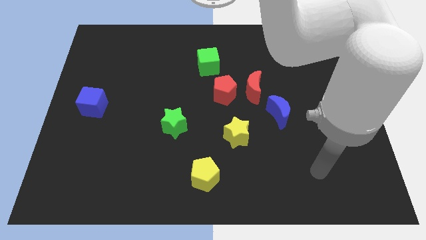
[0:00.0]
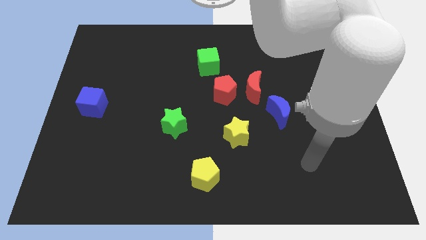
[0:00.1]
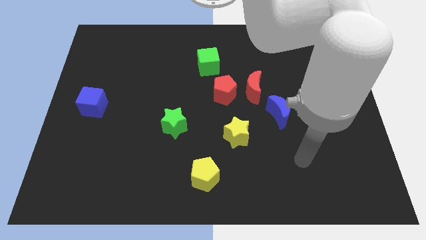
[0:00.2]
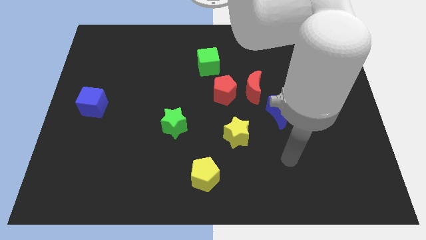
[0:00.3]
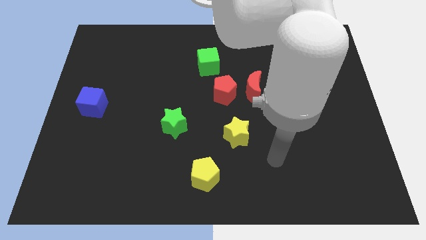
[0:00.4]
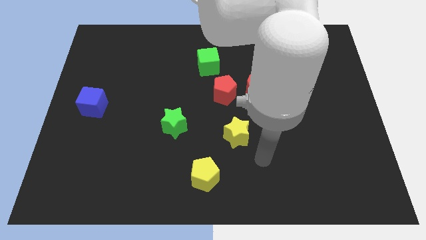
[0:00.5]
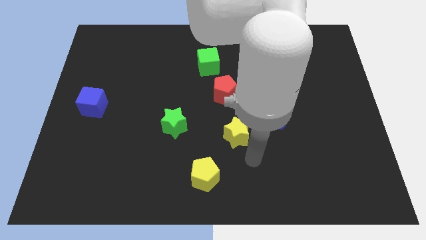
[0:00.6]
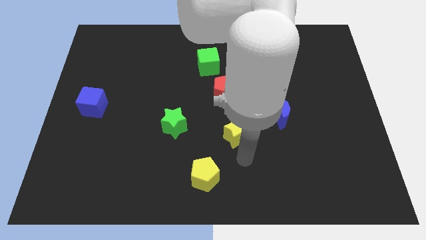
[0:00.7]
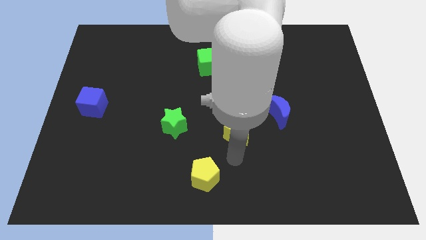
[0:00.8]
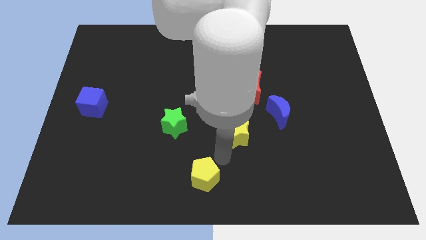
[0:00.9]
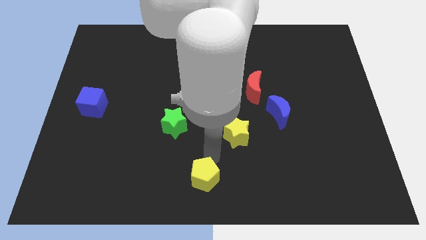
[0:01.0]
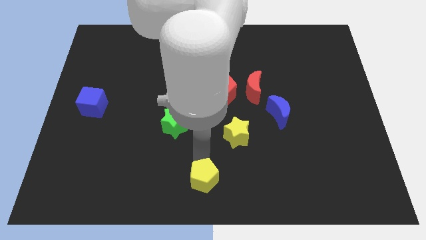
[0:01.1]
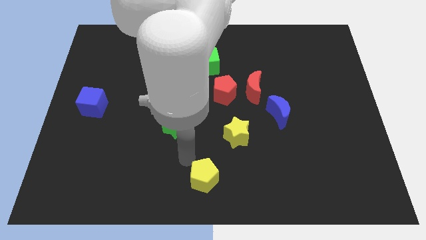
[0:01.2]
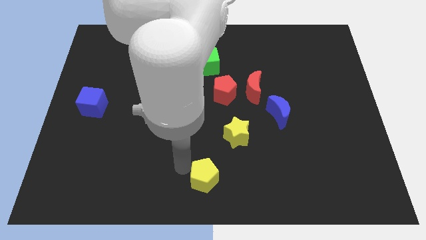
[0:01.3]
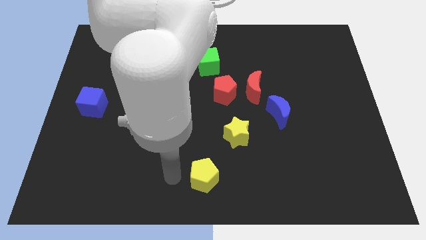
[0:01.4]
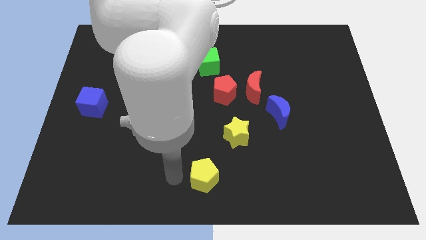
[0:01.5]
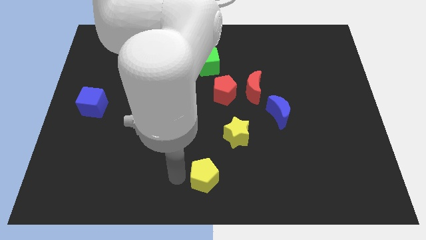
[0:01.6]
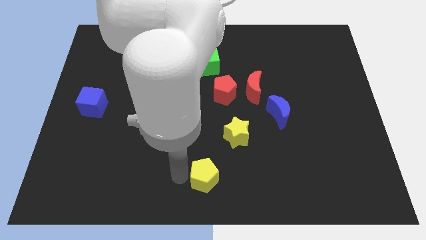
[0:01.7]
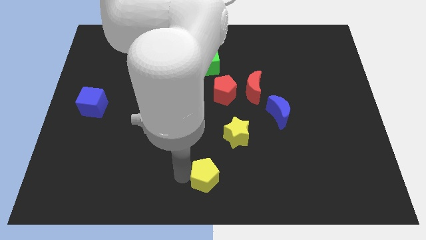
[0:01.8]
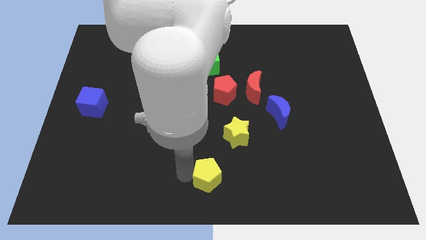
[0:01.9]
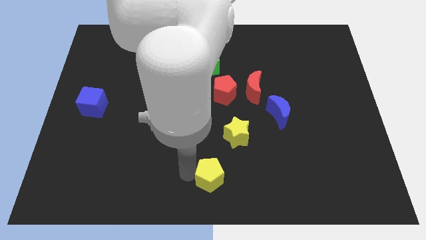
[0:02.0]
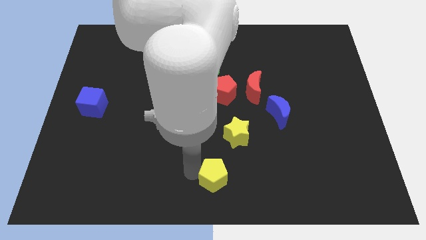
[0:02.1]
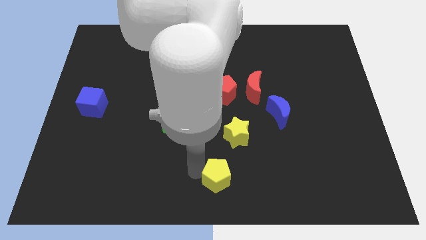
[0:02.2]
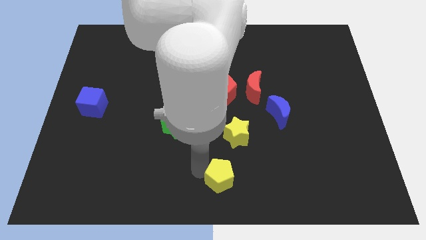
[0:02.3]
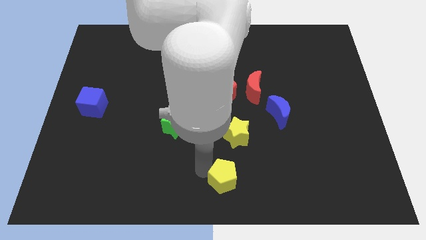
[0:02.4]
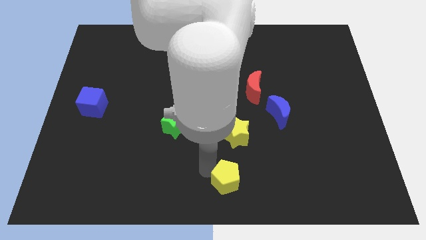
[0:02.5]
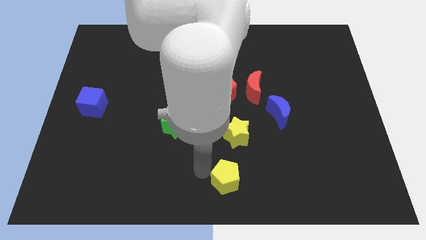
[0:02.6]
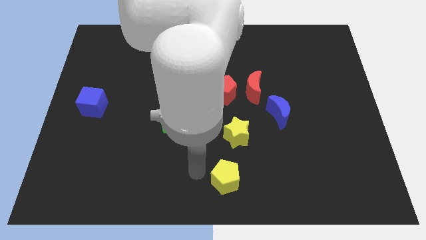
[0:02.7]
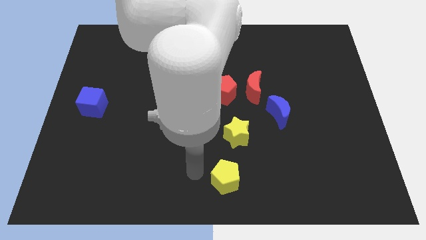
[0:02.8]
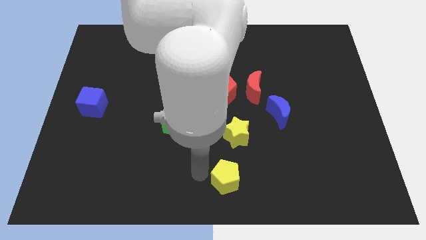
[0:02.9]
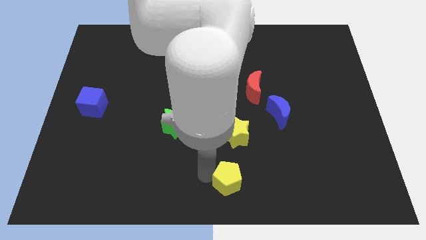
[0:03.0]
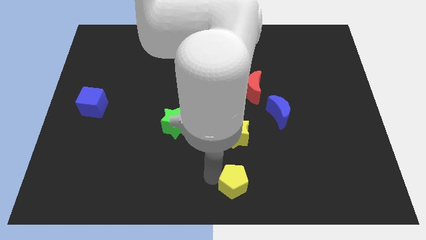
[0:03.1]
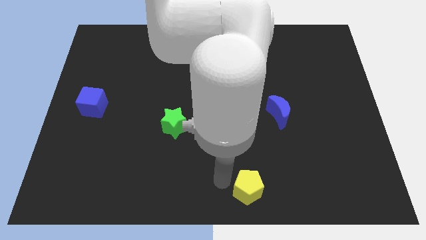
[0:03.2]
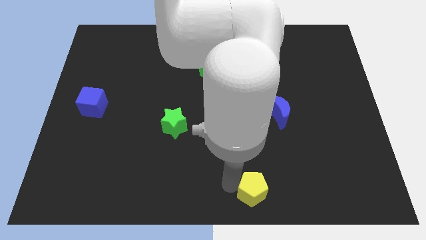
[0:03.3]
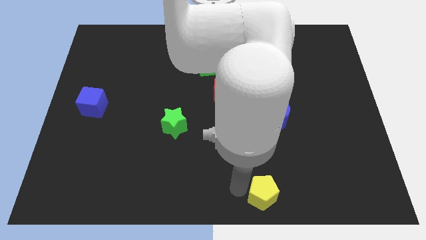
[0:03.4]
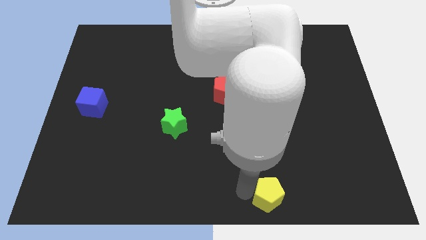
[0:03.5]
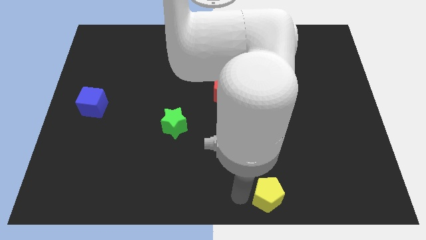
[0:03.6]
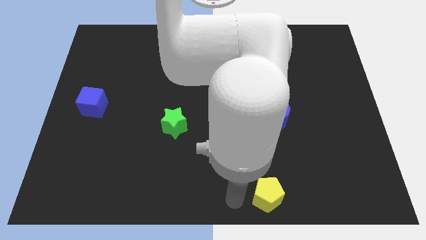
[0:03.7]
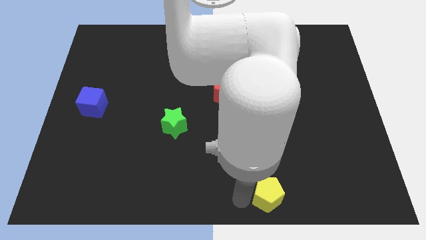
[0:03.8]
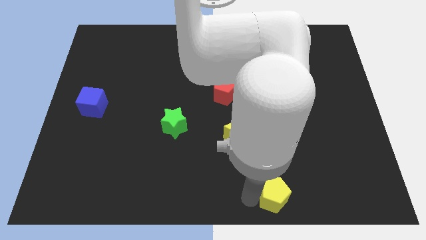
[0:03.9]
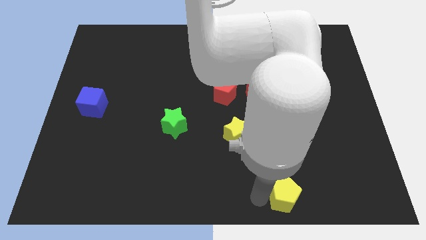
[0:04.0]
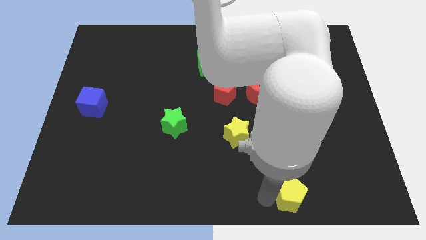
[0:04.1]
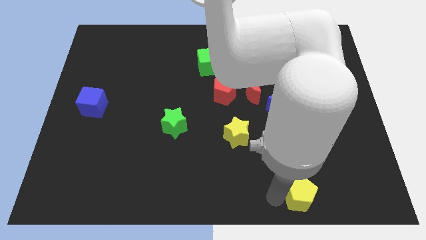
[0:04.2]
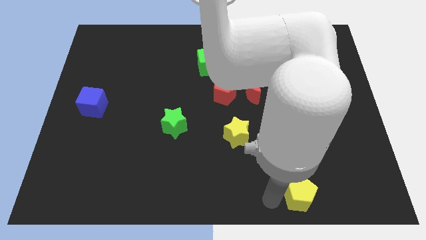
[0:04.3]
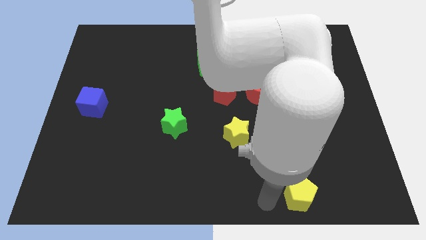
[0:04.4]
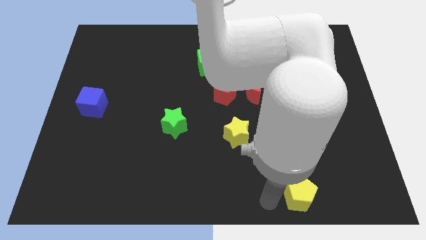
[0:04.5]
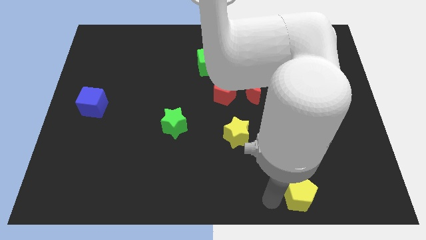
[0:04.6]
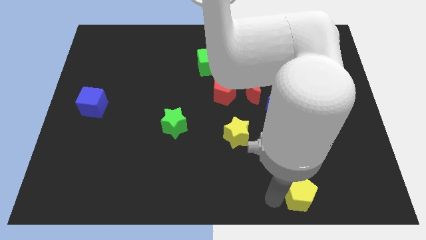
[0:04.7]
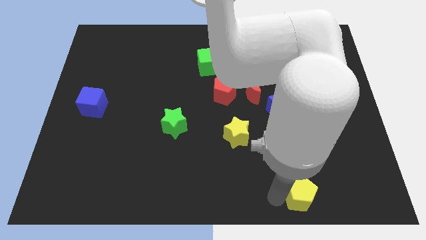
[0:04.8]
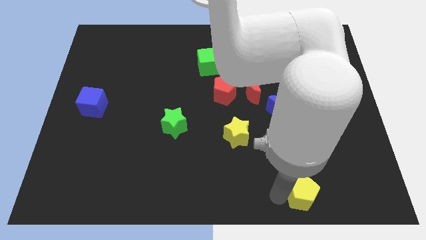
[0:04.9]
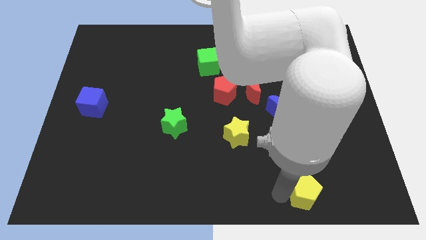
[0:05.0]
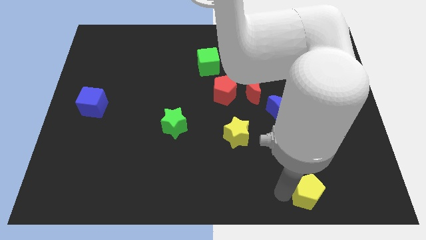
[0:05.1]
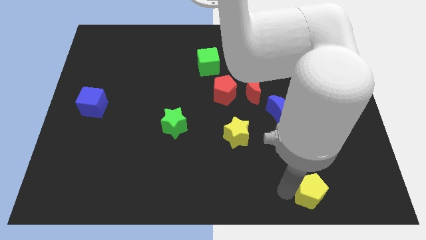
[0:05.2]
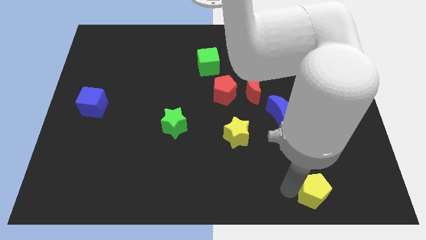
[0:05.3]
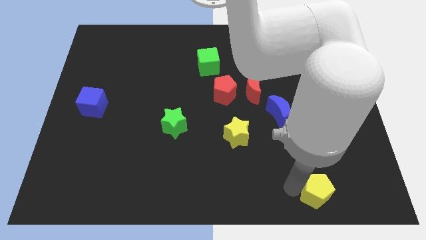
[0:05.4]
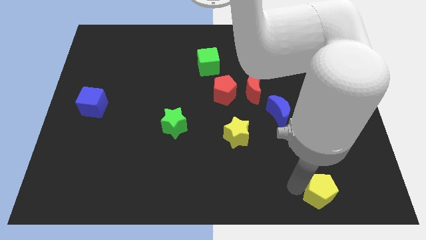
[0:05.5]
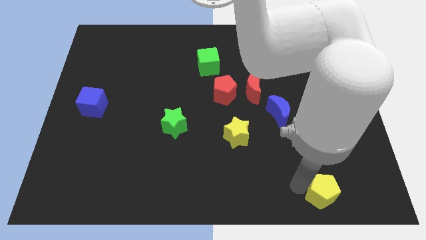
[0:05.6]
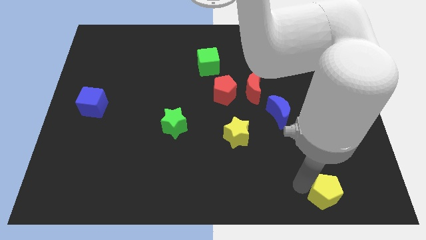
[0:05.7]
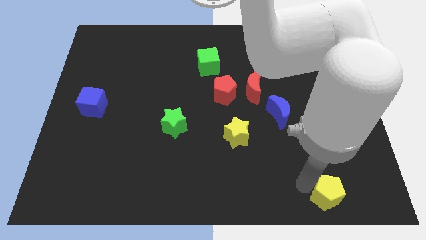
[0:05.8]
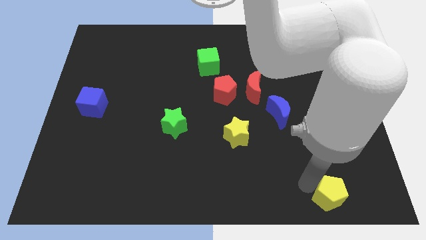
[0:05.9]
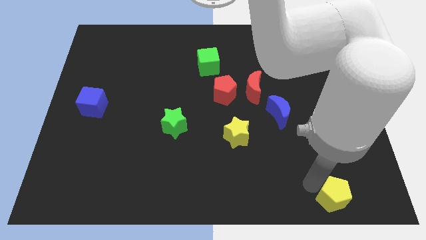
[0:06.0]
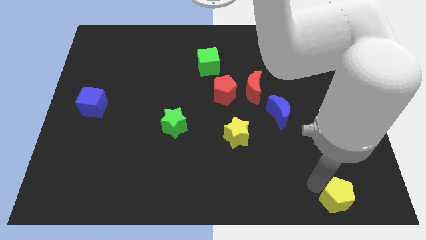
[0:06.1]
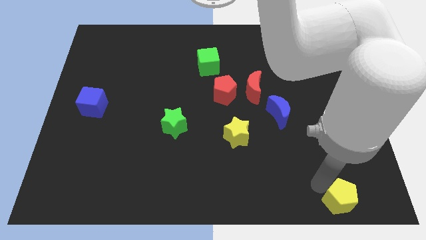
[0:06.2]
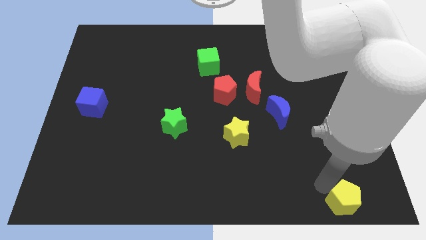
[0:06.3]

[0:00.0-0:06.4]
put the yellow pentagon to the bottom right
